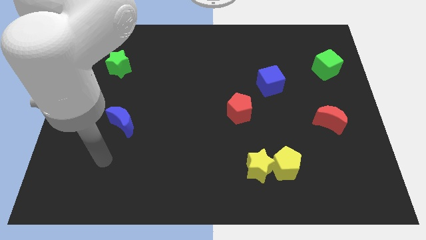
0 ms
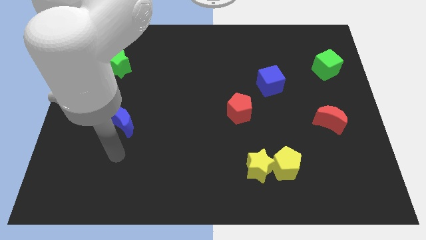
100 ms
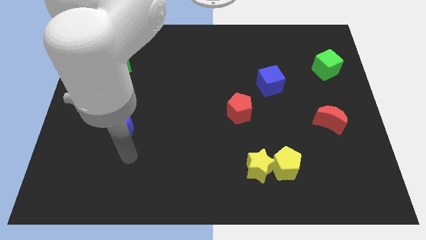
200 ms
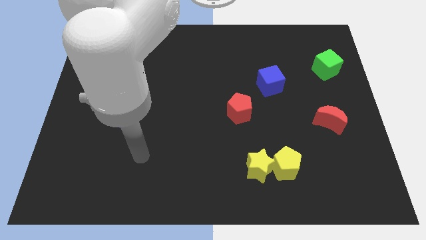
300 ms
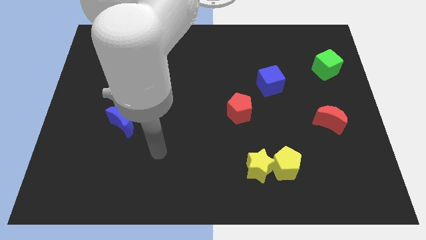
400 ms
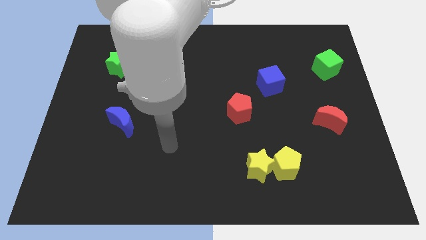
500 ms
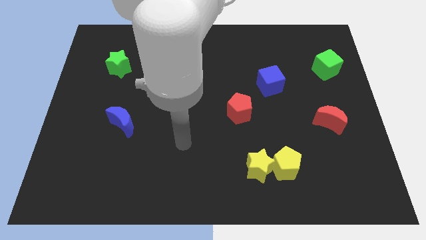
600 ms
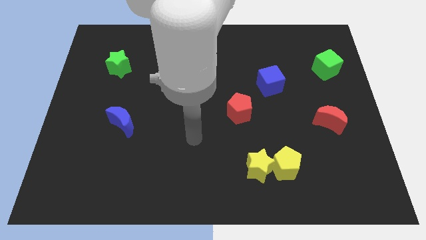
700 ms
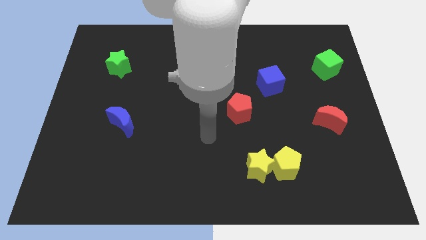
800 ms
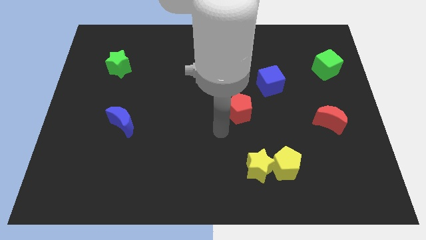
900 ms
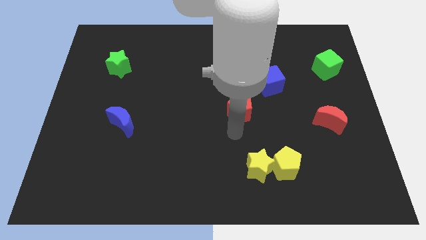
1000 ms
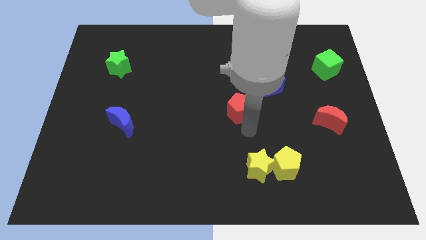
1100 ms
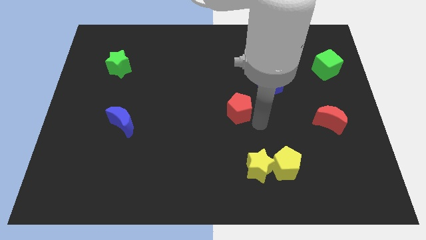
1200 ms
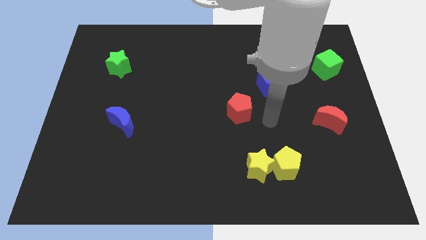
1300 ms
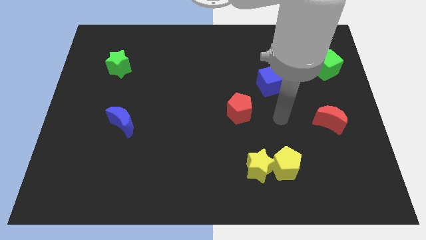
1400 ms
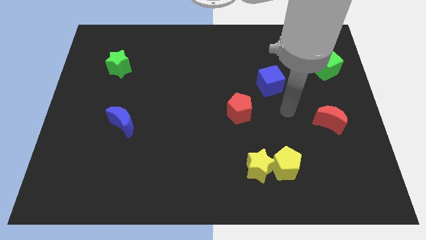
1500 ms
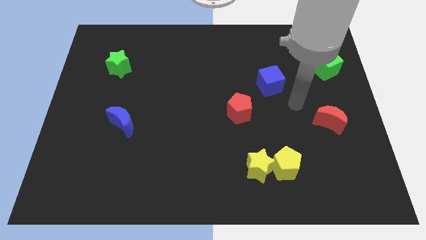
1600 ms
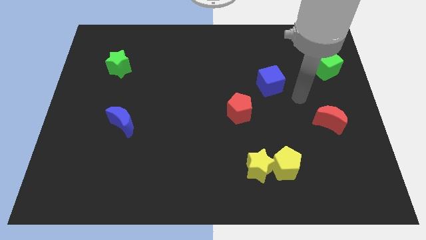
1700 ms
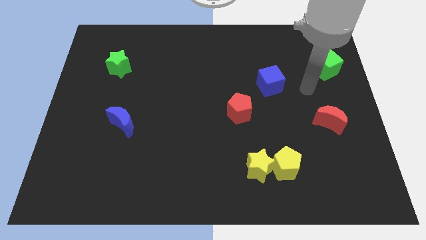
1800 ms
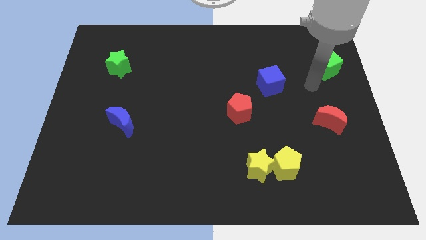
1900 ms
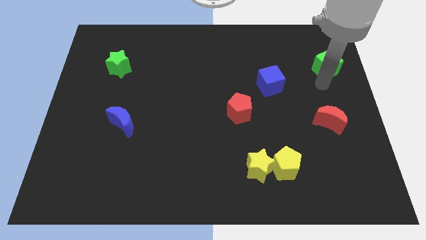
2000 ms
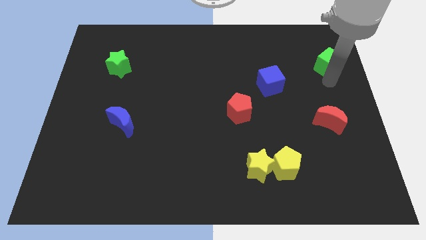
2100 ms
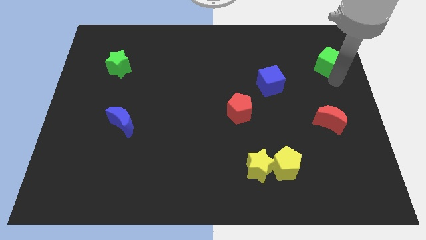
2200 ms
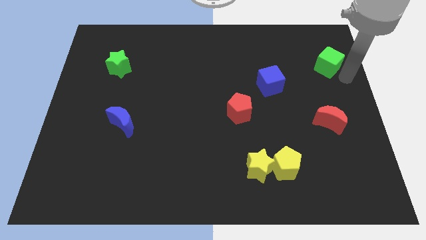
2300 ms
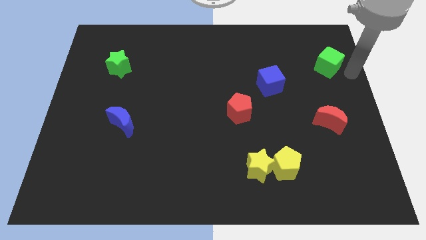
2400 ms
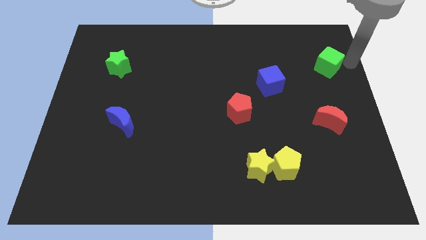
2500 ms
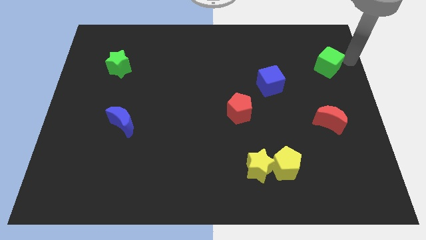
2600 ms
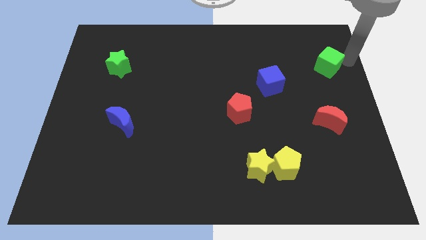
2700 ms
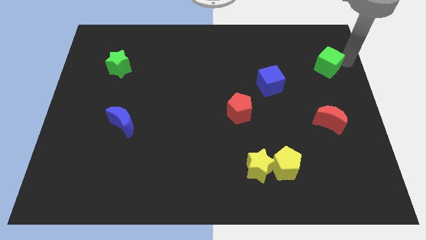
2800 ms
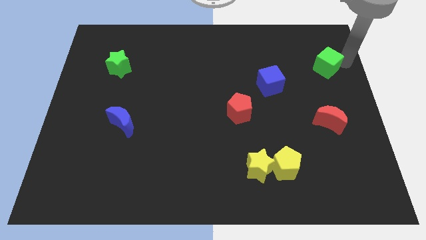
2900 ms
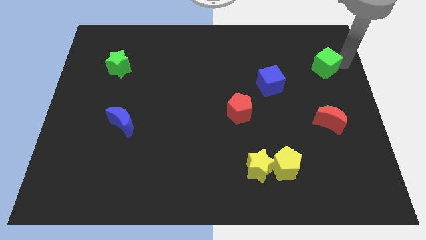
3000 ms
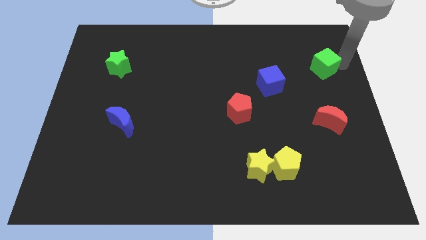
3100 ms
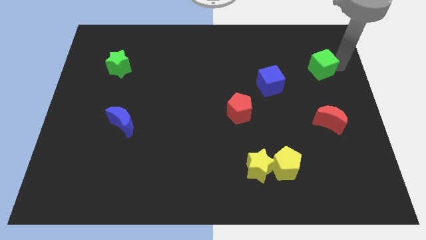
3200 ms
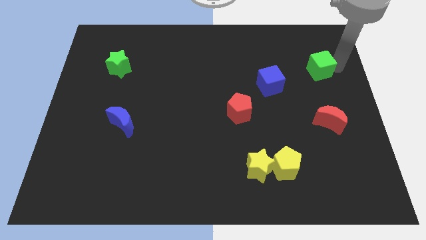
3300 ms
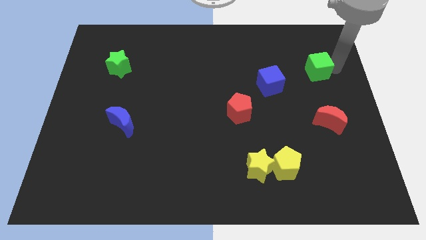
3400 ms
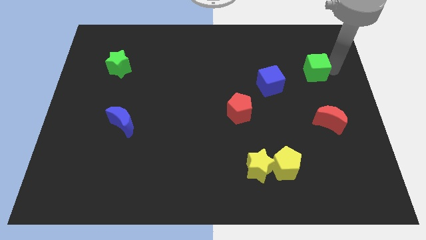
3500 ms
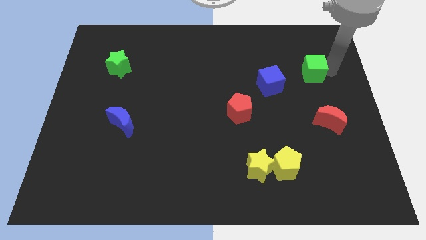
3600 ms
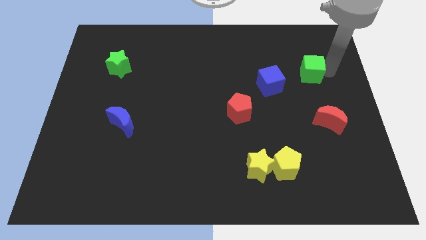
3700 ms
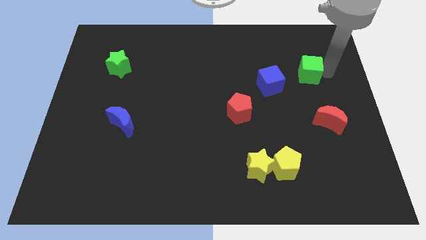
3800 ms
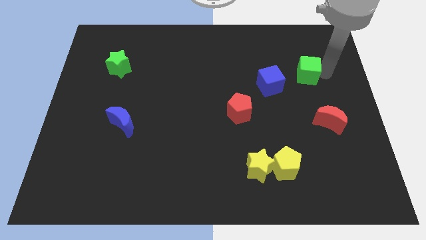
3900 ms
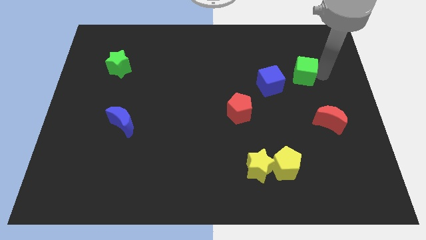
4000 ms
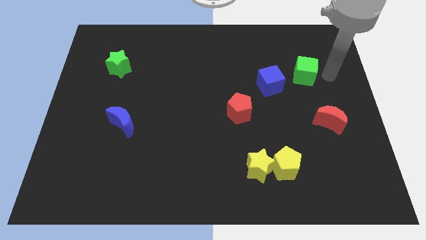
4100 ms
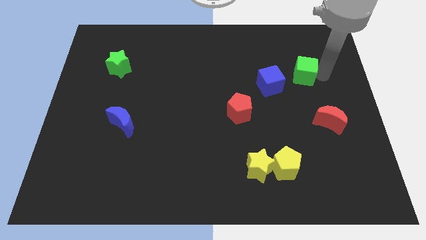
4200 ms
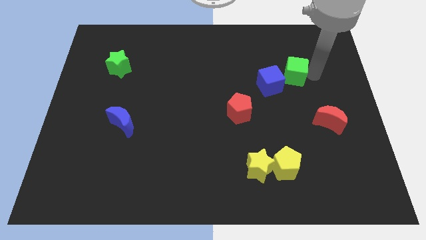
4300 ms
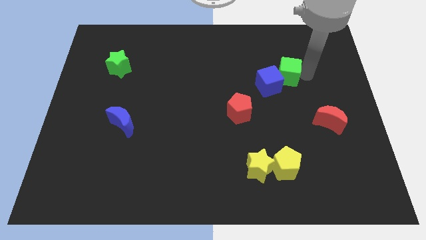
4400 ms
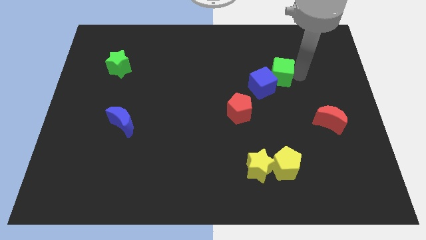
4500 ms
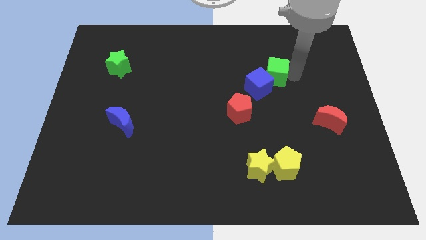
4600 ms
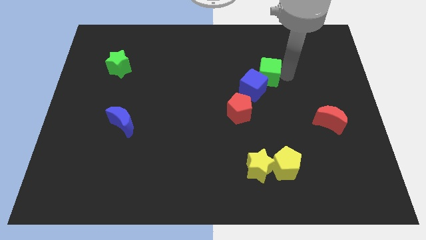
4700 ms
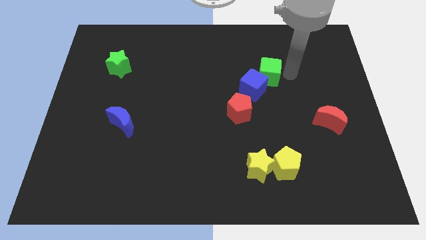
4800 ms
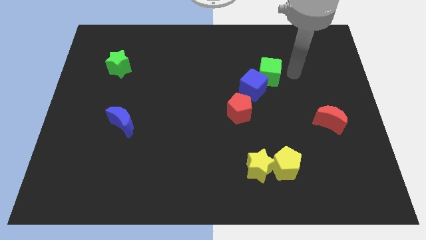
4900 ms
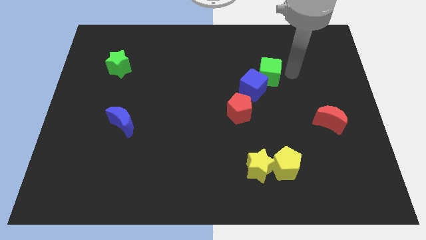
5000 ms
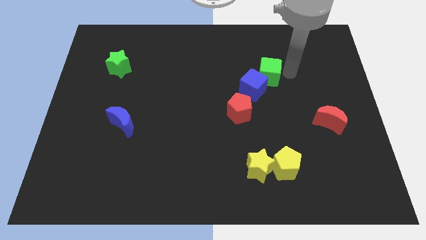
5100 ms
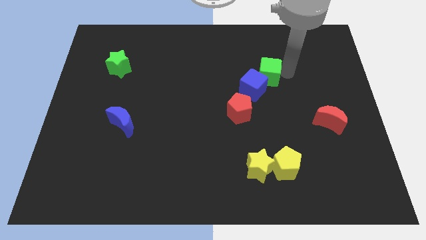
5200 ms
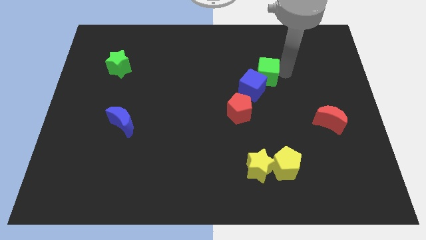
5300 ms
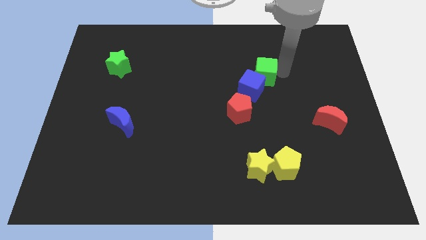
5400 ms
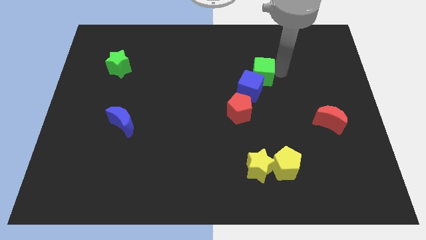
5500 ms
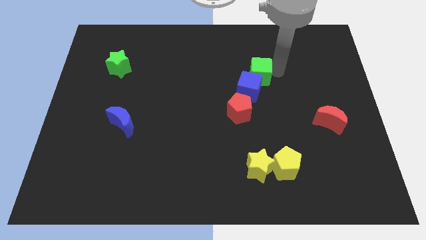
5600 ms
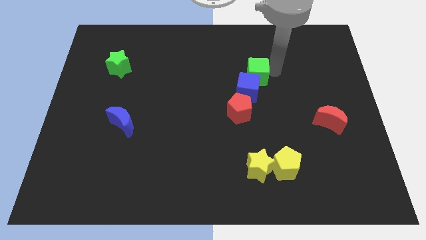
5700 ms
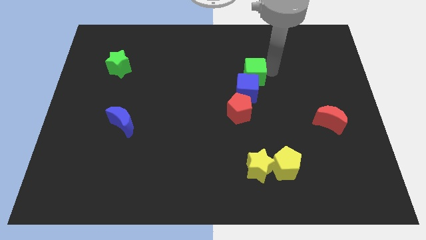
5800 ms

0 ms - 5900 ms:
move the green cube to the top of the red pentagon

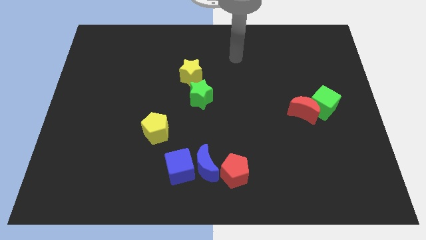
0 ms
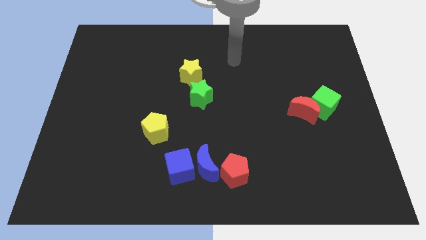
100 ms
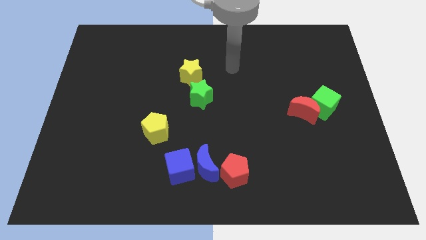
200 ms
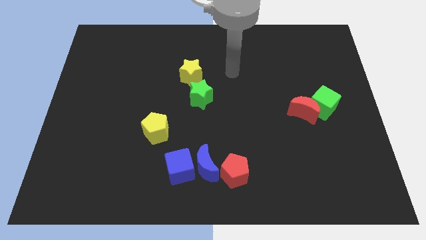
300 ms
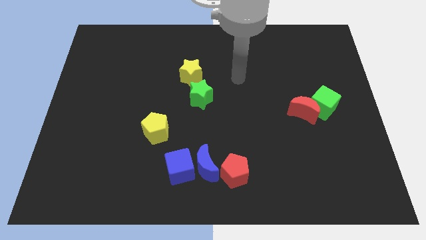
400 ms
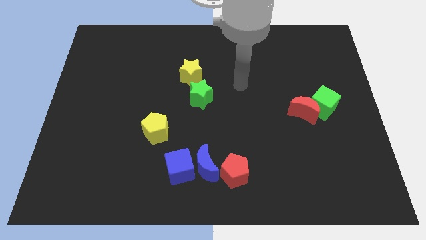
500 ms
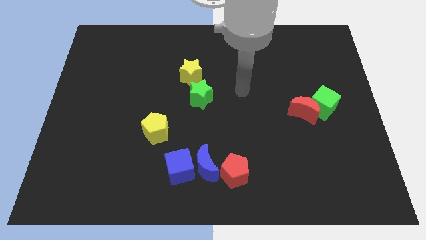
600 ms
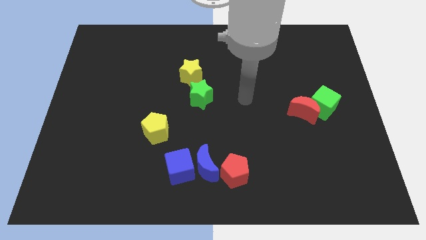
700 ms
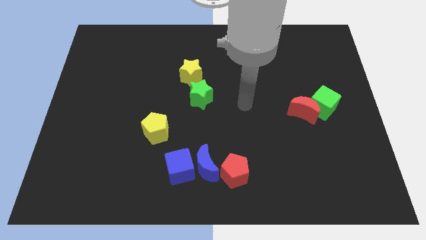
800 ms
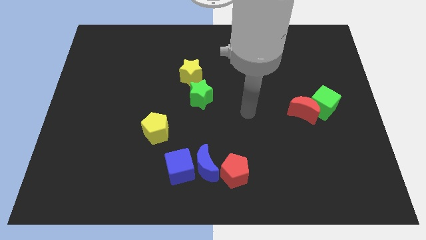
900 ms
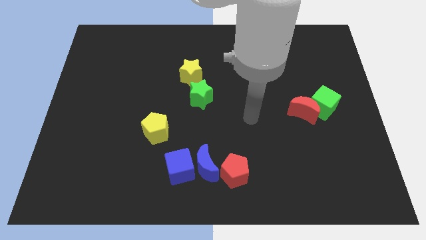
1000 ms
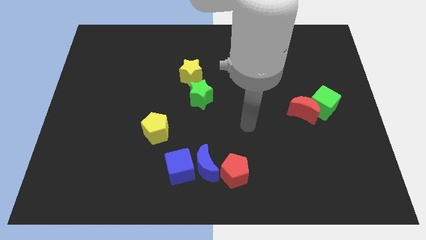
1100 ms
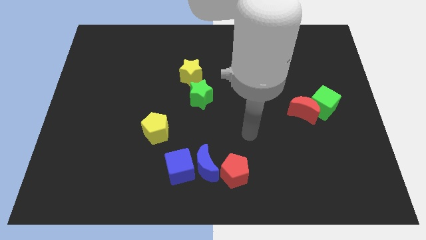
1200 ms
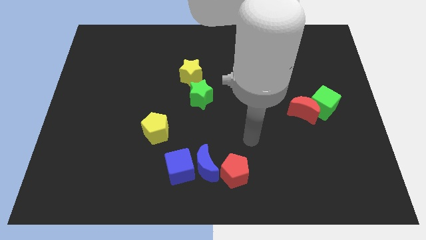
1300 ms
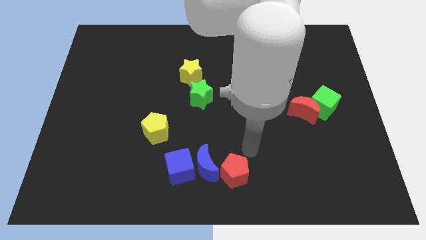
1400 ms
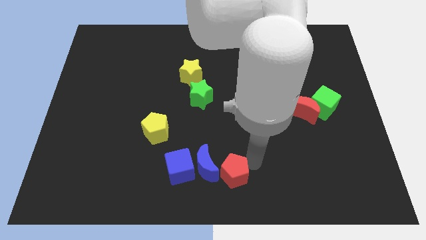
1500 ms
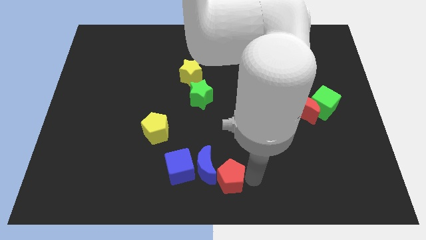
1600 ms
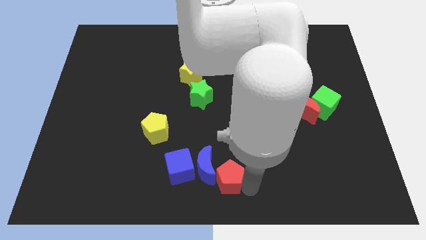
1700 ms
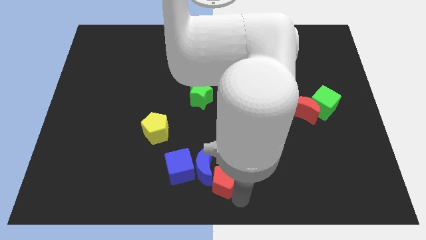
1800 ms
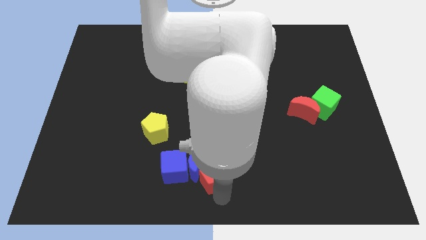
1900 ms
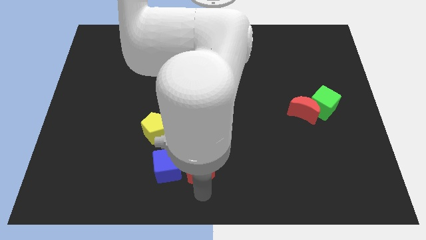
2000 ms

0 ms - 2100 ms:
put the blue moon to the bottom side of the green star
